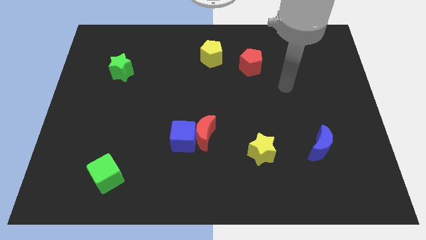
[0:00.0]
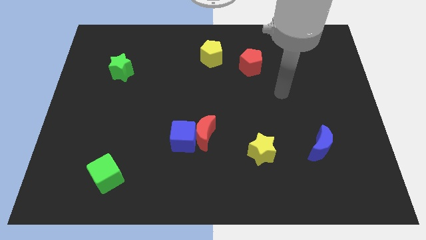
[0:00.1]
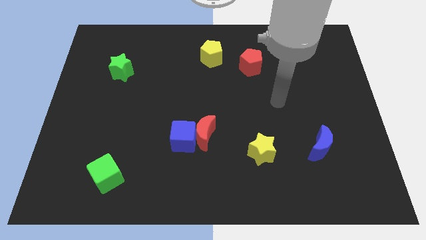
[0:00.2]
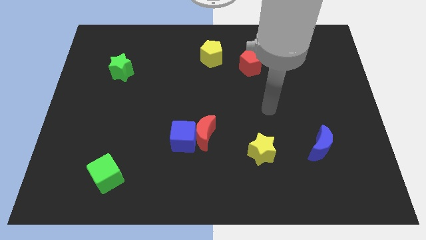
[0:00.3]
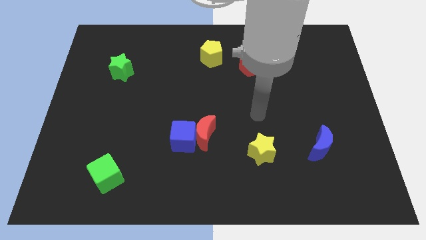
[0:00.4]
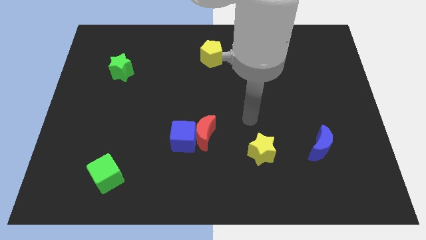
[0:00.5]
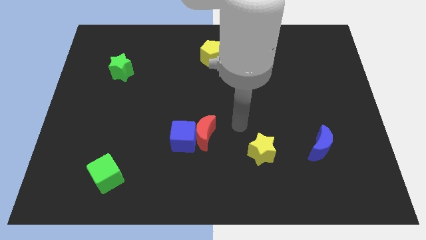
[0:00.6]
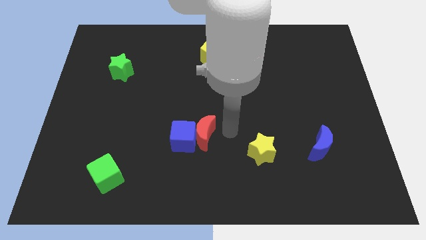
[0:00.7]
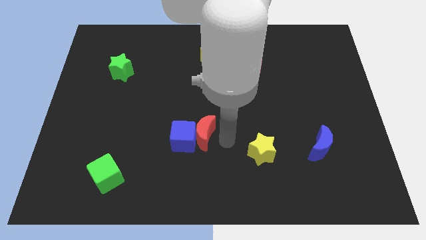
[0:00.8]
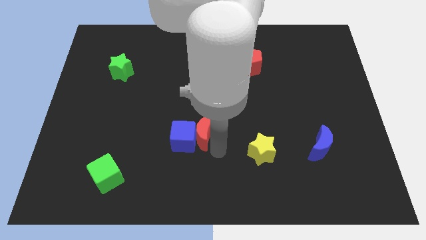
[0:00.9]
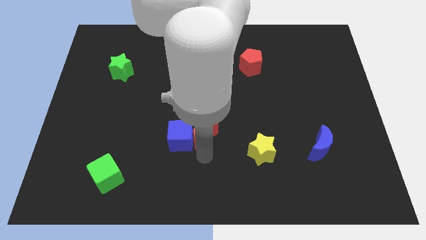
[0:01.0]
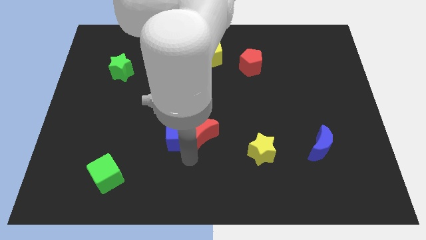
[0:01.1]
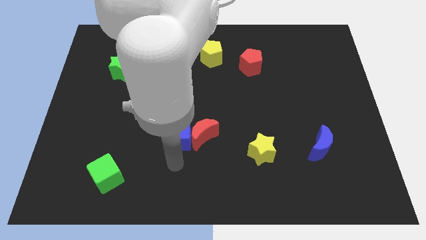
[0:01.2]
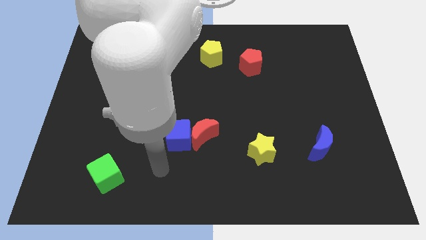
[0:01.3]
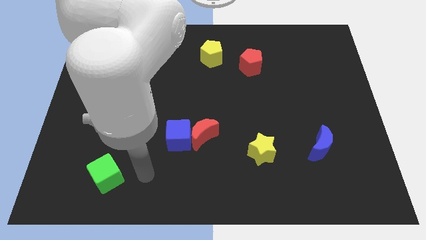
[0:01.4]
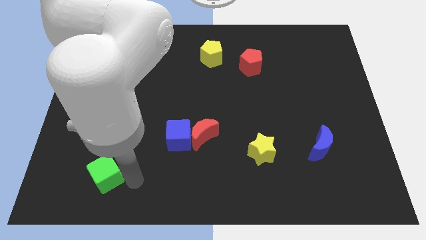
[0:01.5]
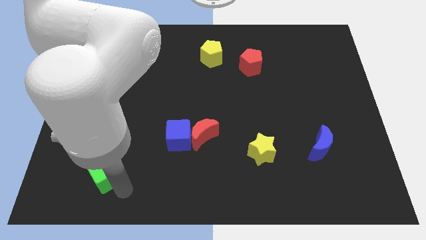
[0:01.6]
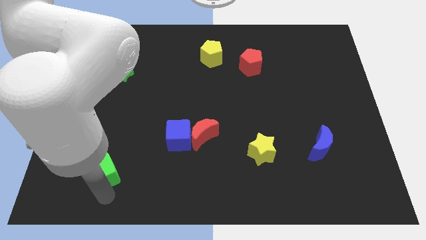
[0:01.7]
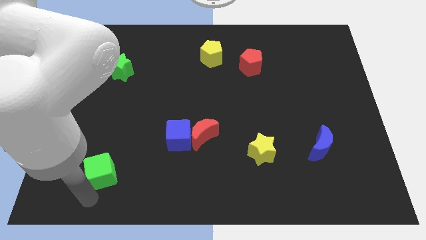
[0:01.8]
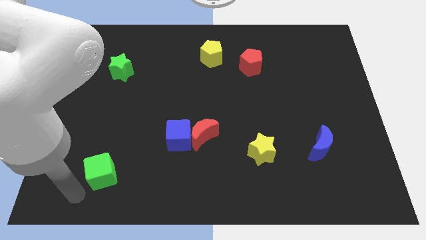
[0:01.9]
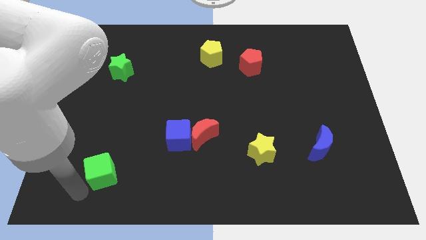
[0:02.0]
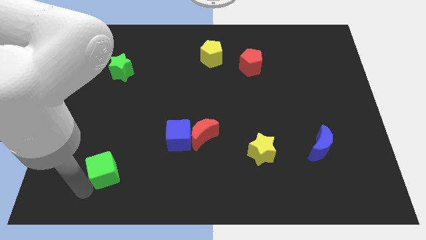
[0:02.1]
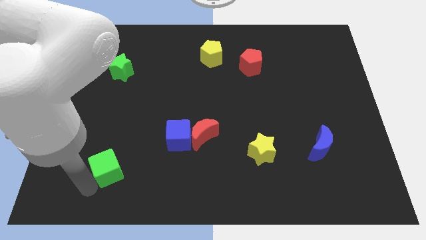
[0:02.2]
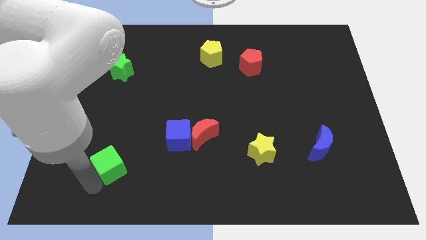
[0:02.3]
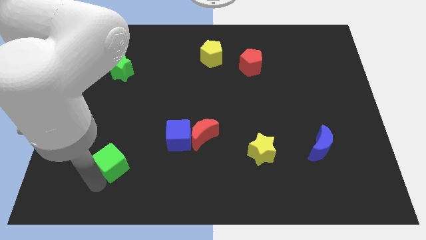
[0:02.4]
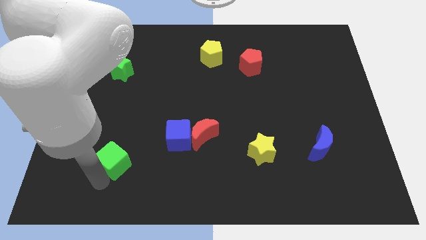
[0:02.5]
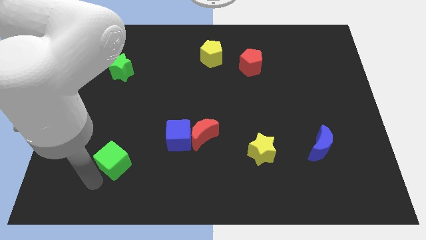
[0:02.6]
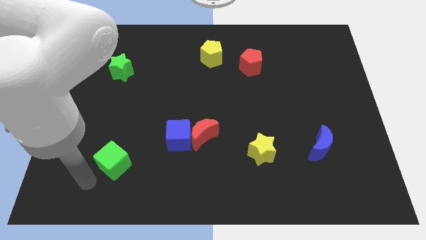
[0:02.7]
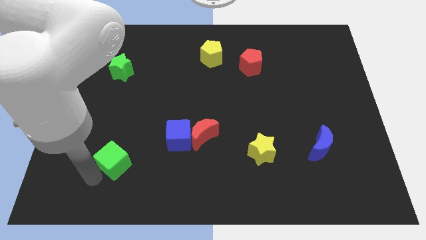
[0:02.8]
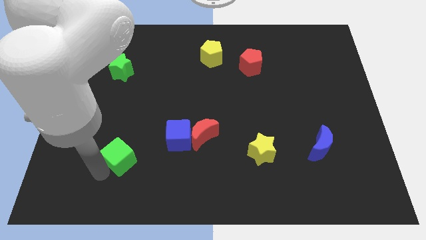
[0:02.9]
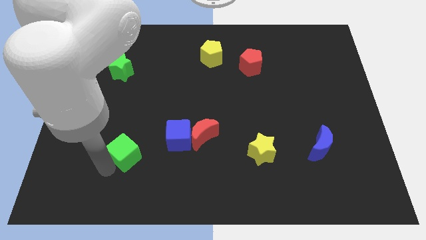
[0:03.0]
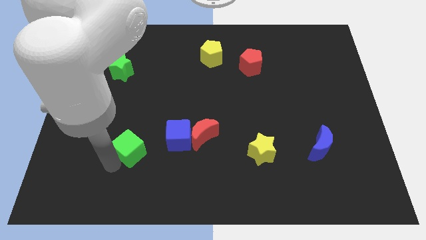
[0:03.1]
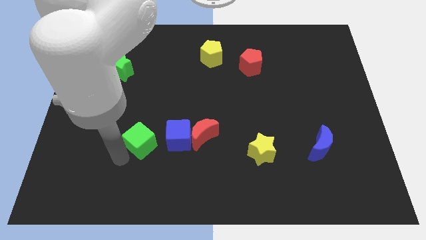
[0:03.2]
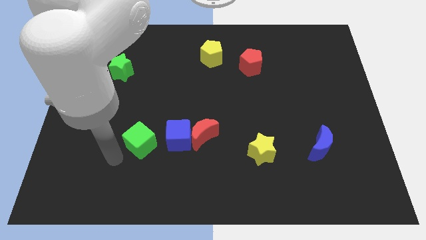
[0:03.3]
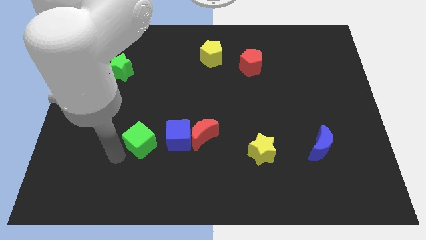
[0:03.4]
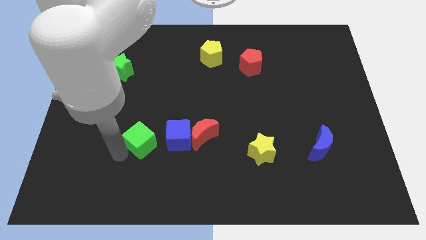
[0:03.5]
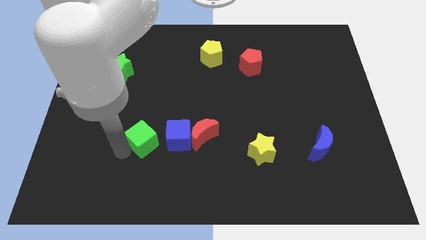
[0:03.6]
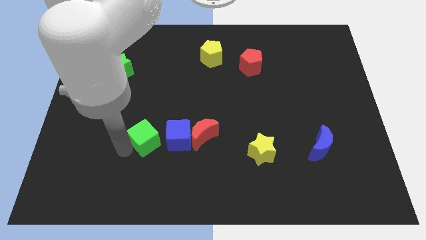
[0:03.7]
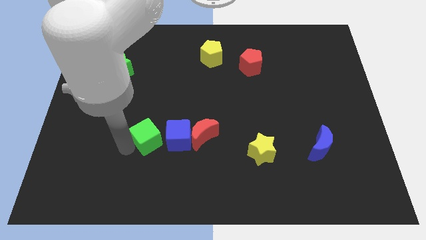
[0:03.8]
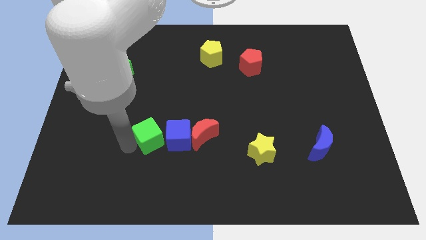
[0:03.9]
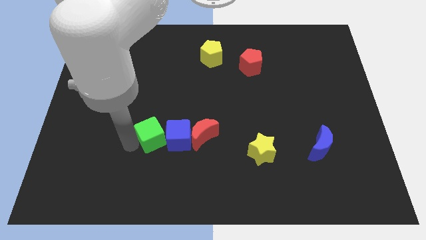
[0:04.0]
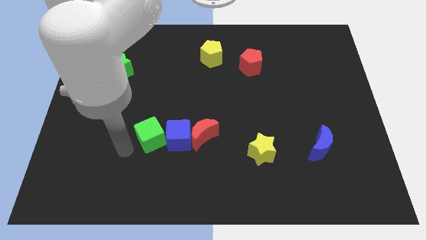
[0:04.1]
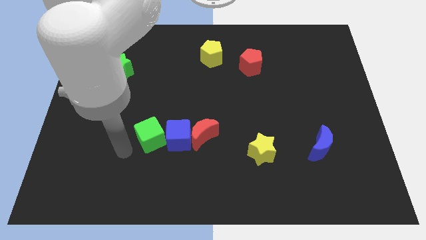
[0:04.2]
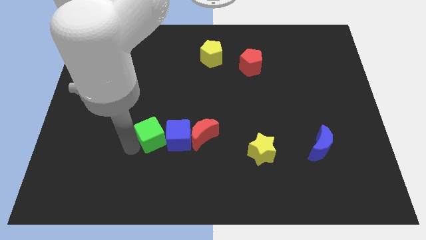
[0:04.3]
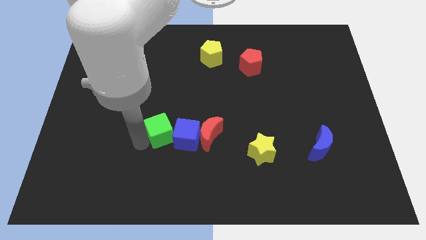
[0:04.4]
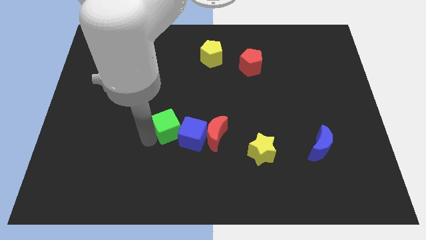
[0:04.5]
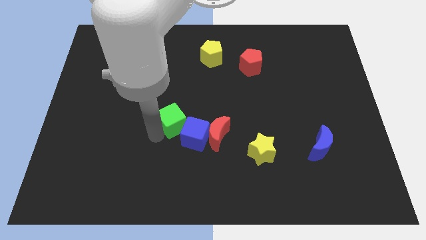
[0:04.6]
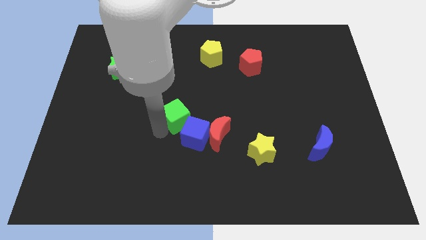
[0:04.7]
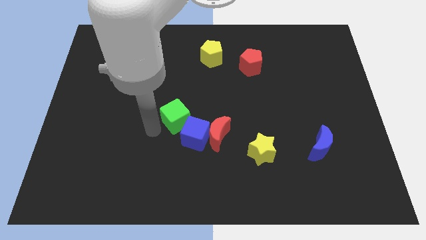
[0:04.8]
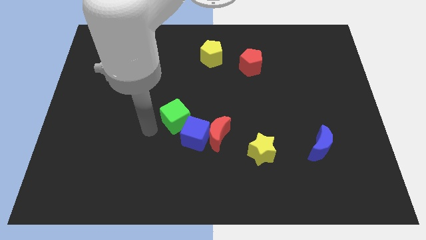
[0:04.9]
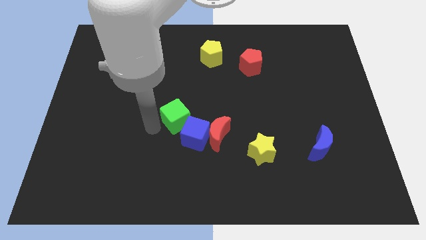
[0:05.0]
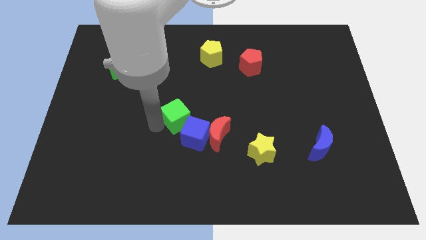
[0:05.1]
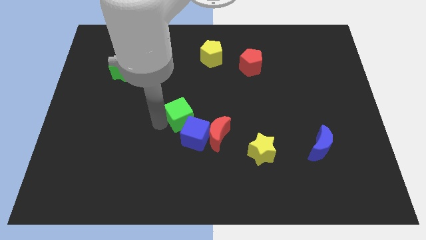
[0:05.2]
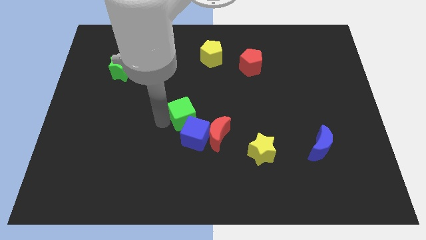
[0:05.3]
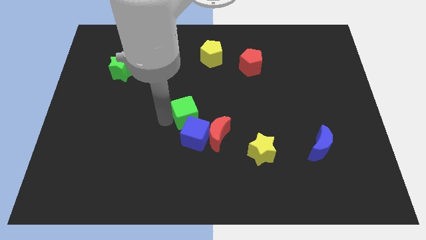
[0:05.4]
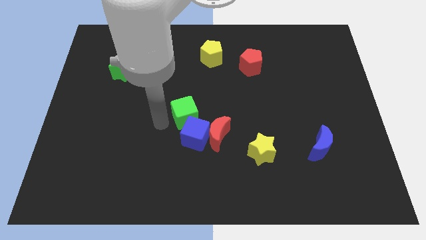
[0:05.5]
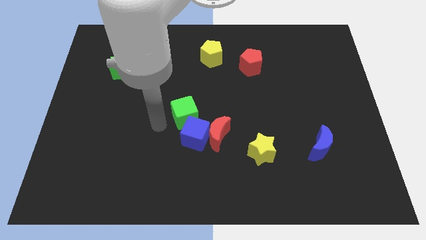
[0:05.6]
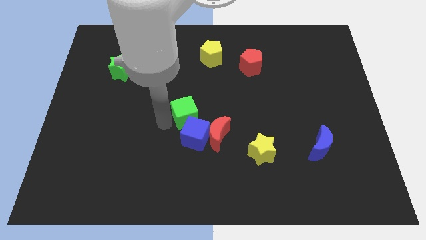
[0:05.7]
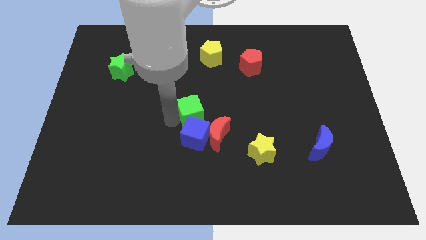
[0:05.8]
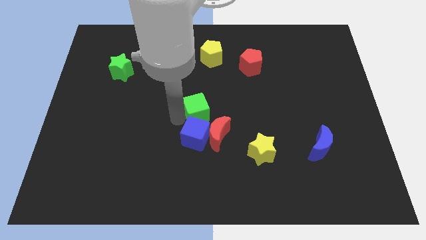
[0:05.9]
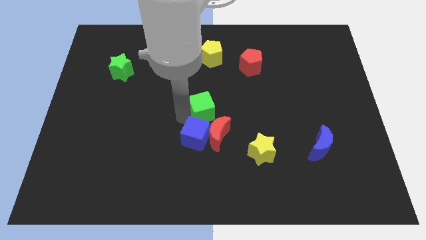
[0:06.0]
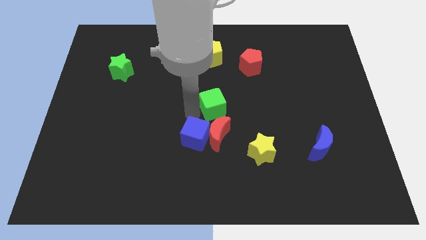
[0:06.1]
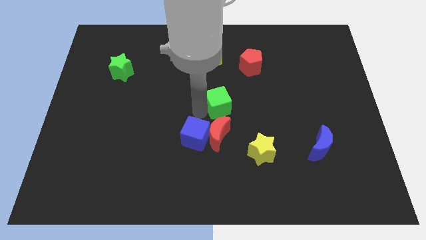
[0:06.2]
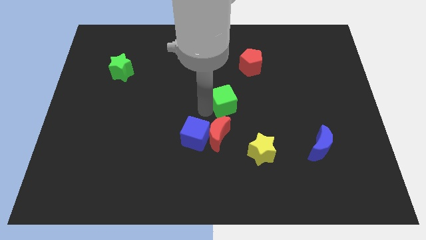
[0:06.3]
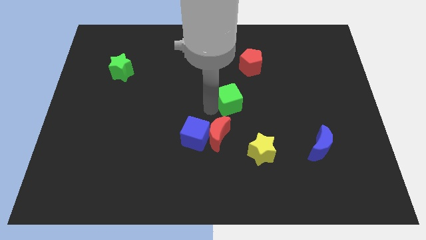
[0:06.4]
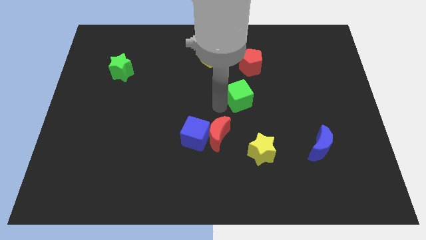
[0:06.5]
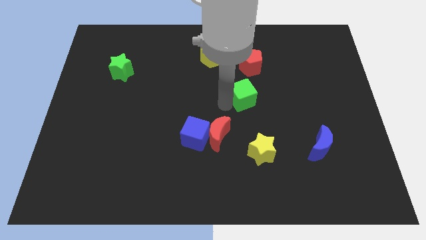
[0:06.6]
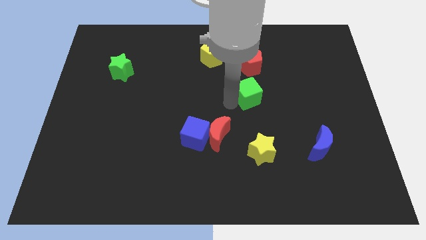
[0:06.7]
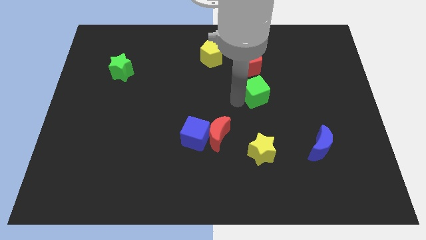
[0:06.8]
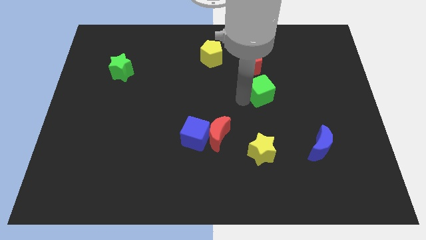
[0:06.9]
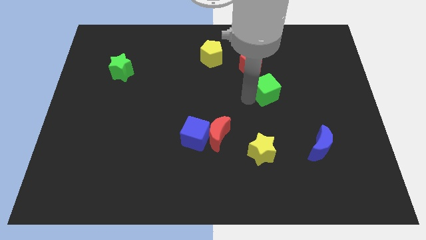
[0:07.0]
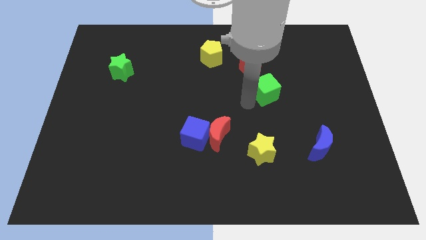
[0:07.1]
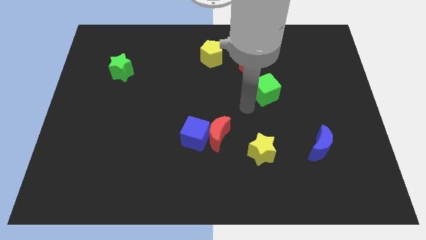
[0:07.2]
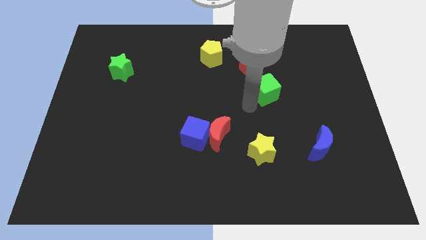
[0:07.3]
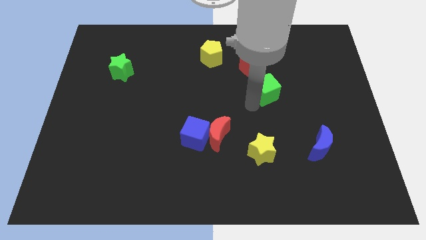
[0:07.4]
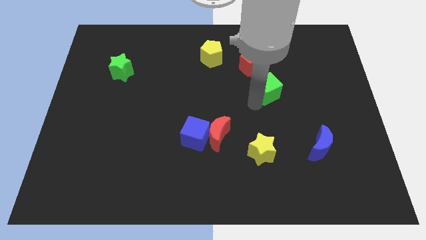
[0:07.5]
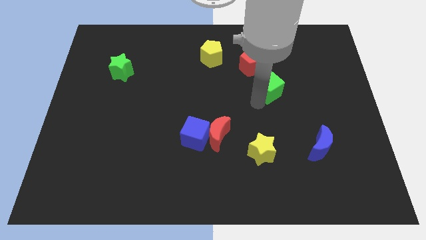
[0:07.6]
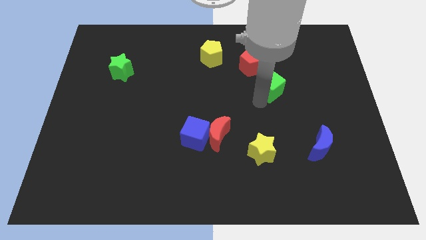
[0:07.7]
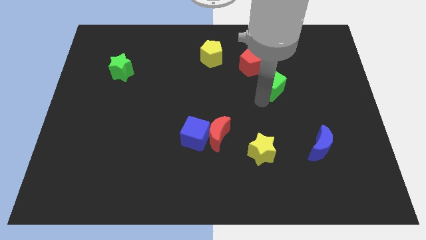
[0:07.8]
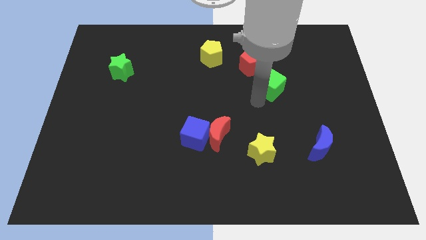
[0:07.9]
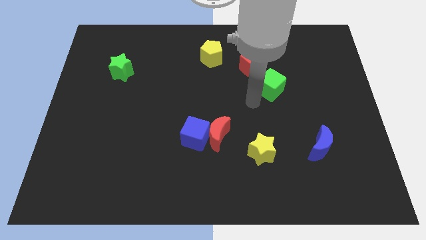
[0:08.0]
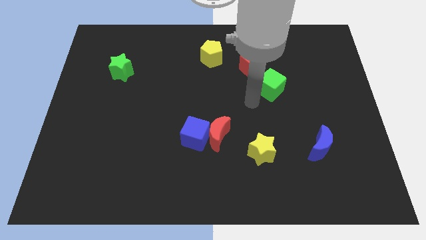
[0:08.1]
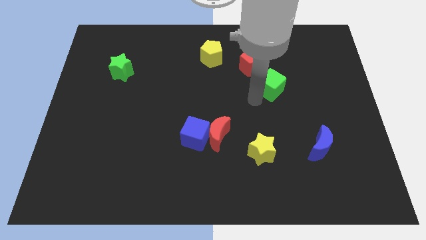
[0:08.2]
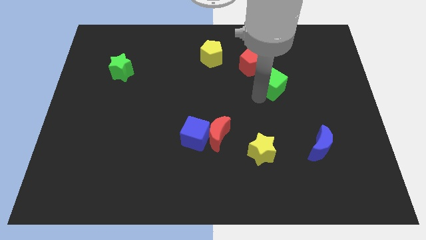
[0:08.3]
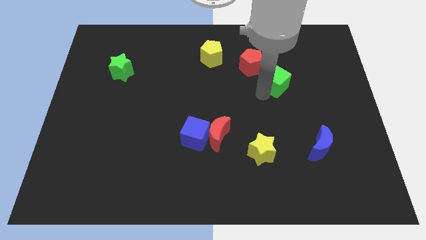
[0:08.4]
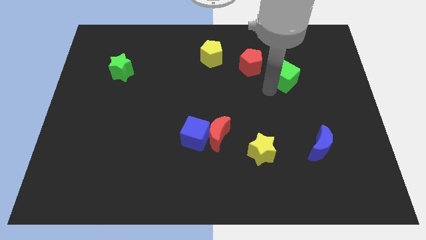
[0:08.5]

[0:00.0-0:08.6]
put the green cube to the right side of the red pentagon
